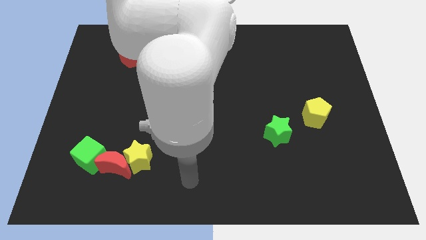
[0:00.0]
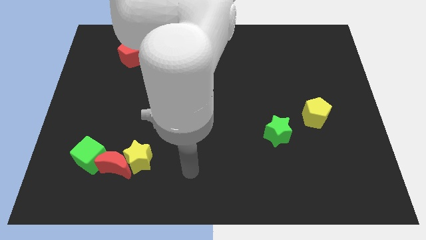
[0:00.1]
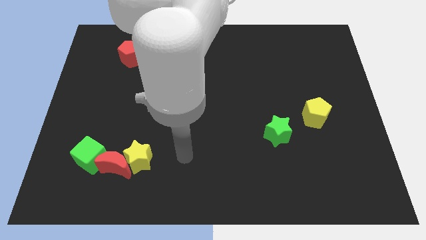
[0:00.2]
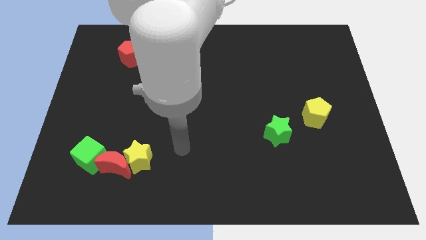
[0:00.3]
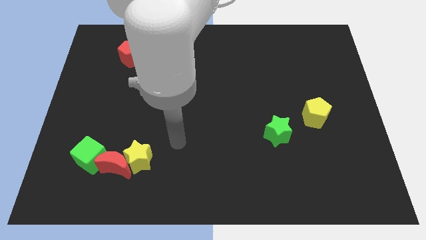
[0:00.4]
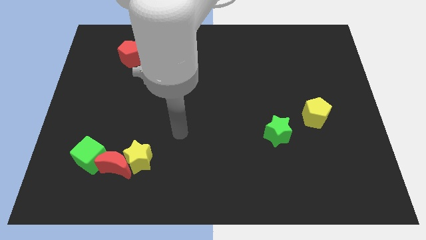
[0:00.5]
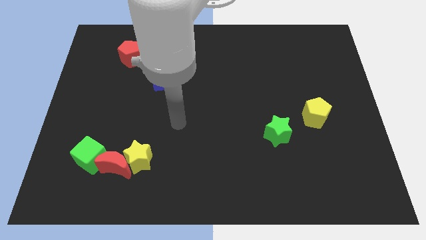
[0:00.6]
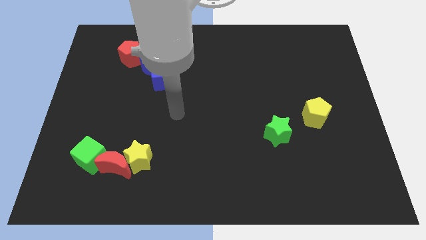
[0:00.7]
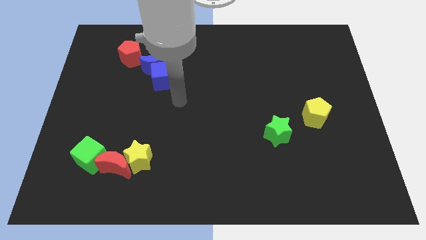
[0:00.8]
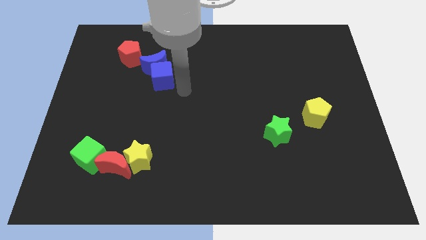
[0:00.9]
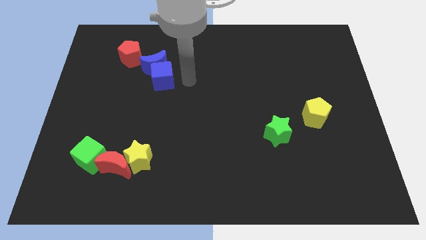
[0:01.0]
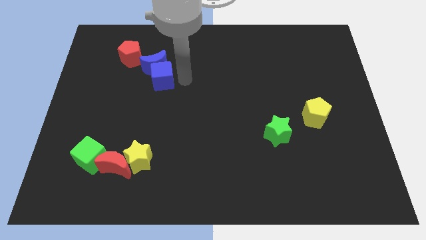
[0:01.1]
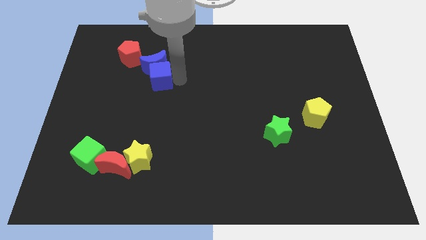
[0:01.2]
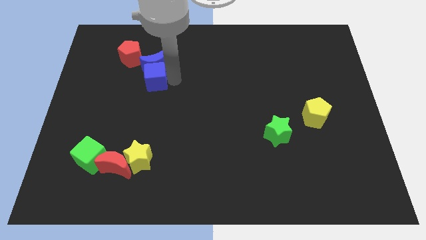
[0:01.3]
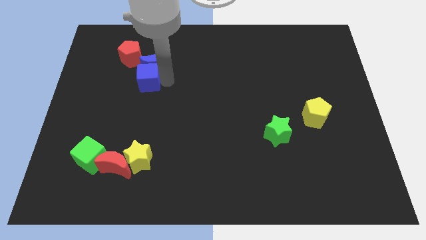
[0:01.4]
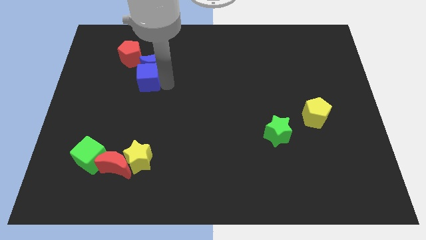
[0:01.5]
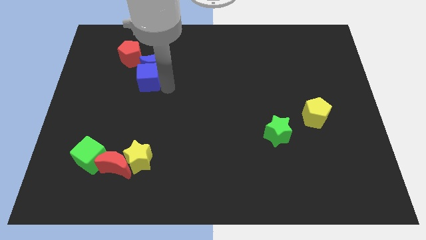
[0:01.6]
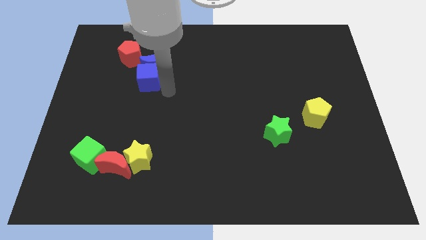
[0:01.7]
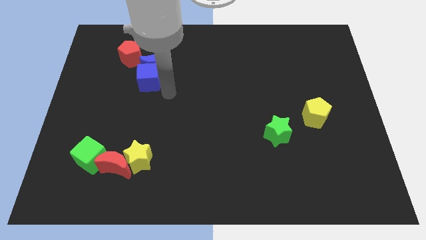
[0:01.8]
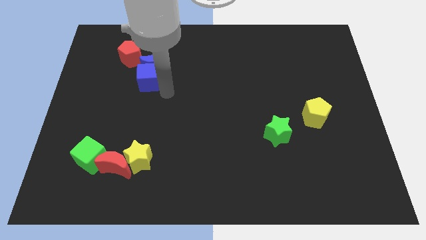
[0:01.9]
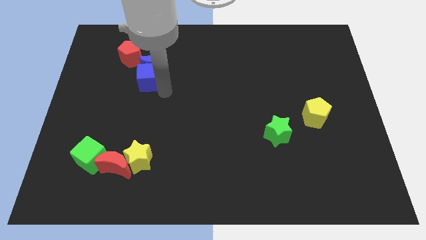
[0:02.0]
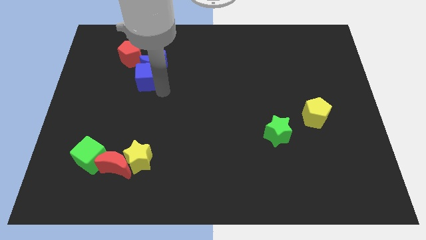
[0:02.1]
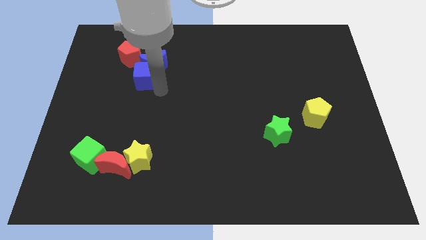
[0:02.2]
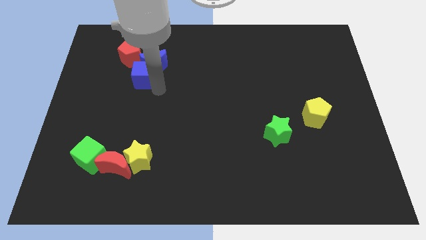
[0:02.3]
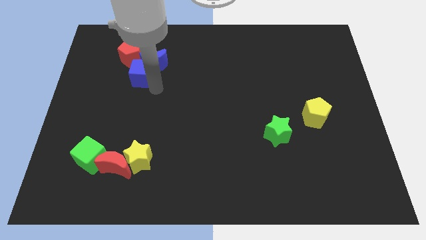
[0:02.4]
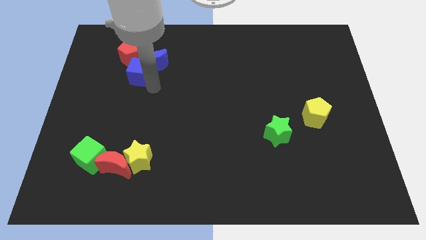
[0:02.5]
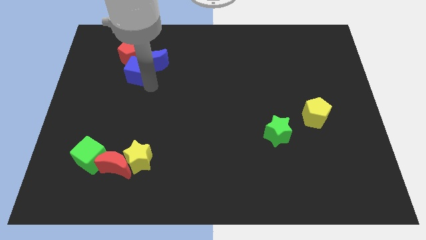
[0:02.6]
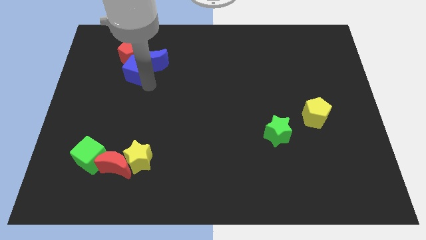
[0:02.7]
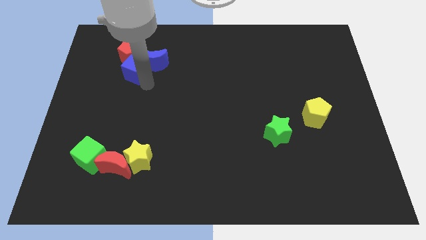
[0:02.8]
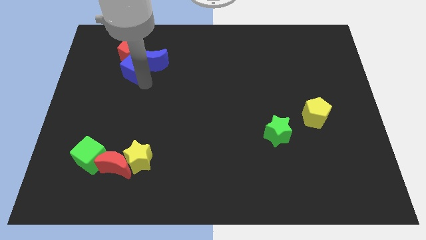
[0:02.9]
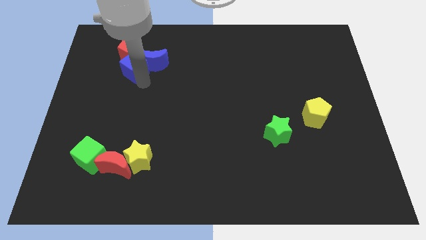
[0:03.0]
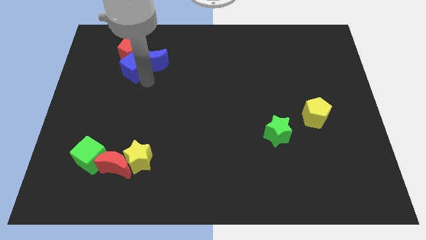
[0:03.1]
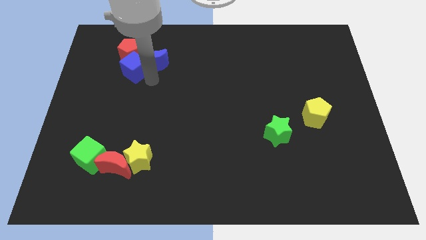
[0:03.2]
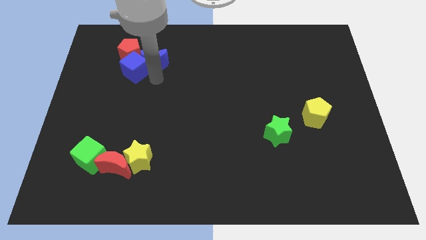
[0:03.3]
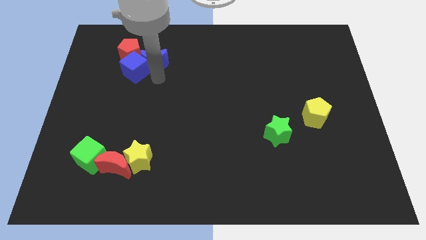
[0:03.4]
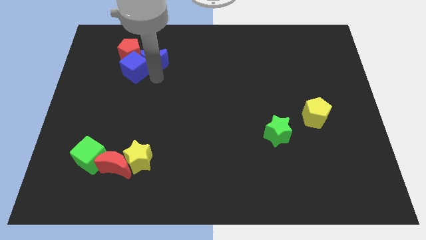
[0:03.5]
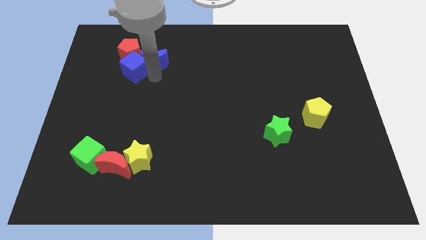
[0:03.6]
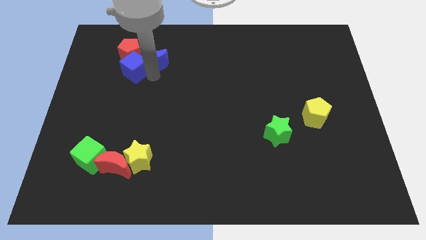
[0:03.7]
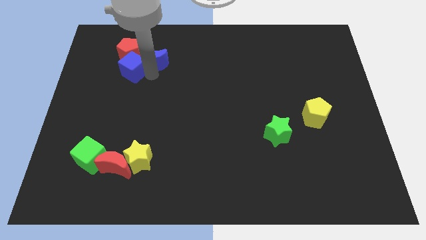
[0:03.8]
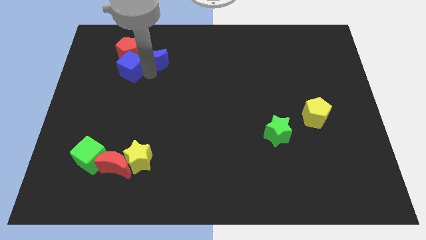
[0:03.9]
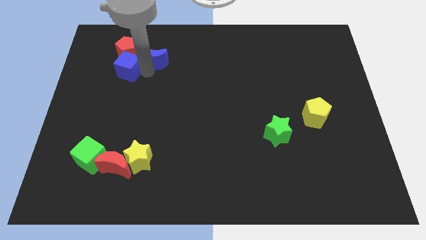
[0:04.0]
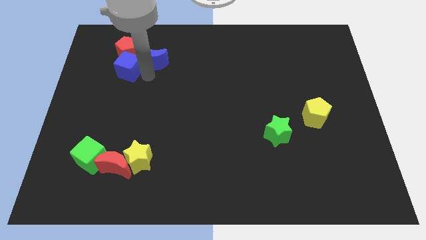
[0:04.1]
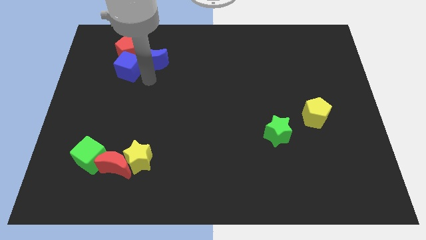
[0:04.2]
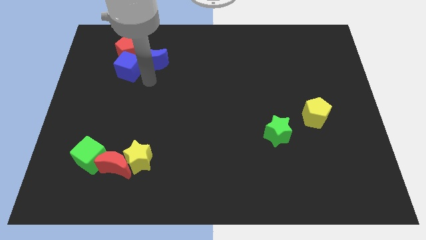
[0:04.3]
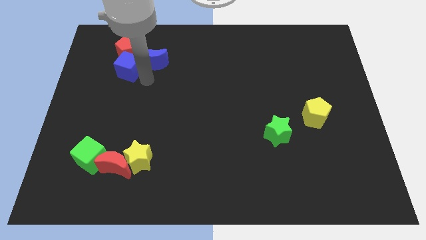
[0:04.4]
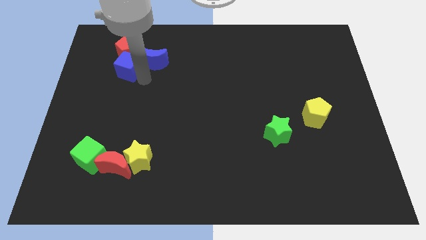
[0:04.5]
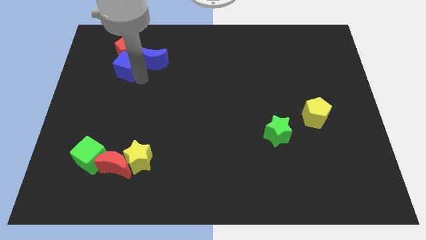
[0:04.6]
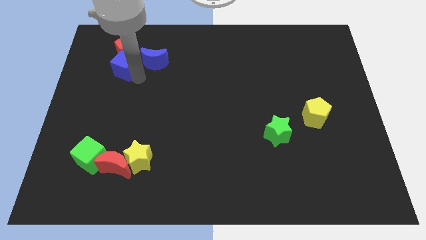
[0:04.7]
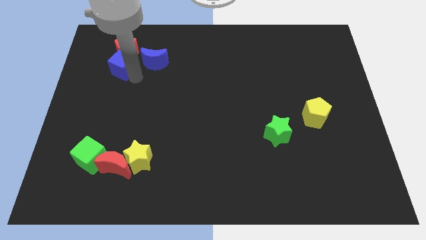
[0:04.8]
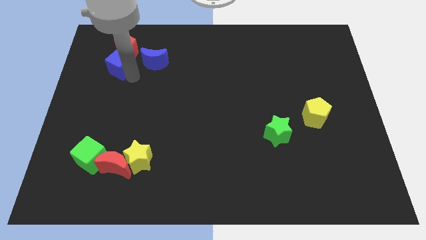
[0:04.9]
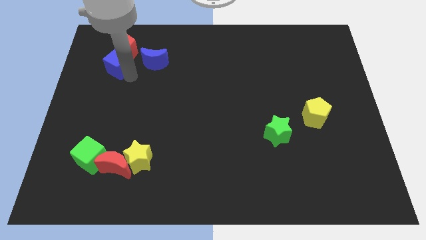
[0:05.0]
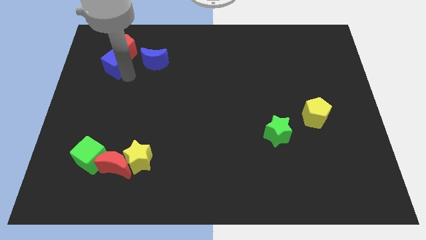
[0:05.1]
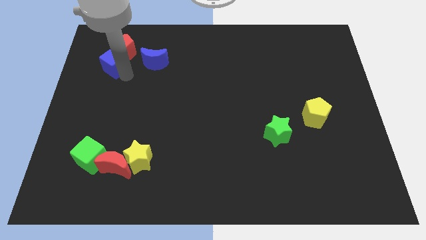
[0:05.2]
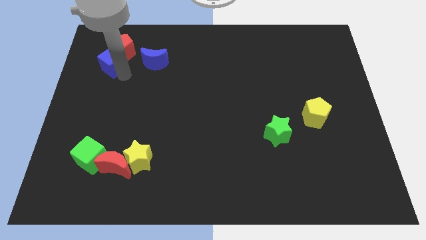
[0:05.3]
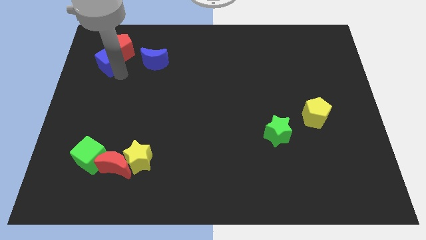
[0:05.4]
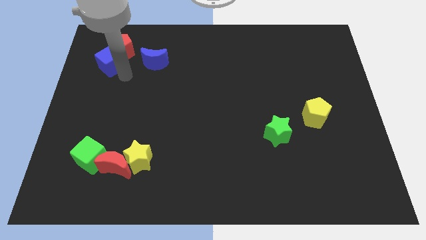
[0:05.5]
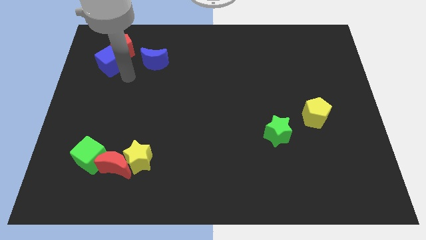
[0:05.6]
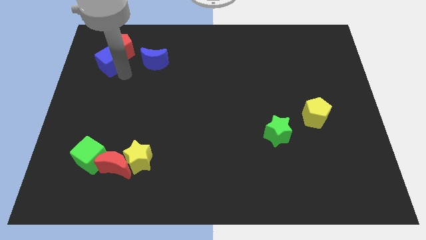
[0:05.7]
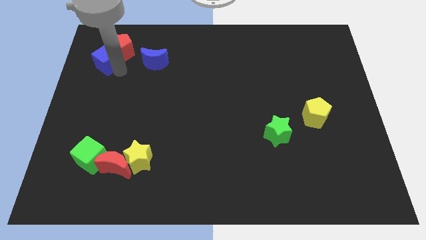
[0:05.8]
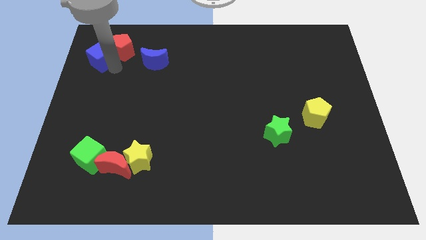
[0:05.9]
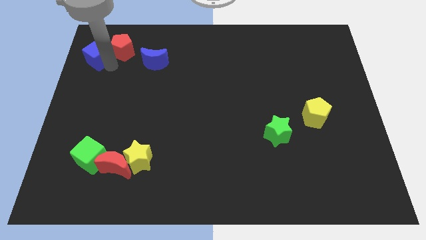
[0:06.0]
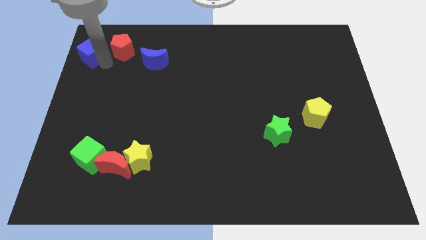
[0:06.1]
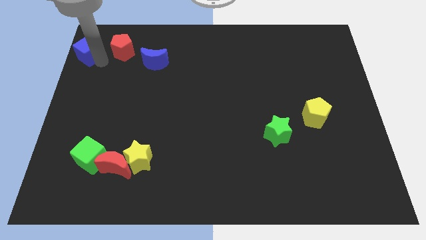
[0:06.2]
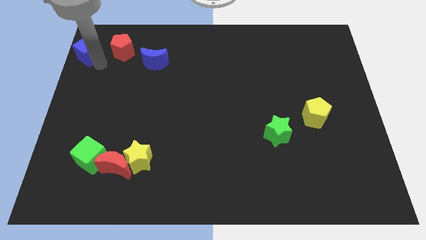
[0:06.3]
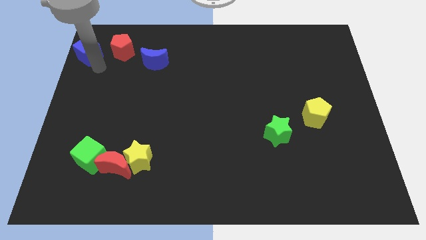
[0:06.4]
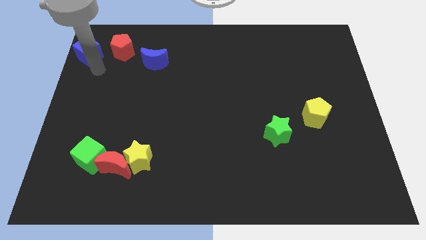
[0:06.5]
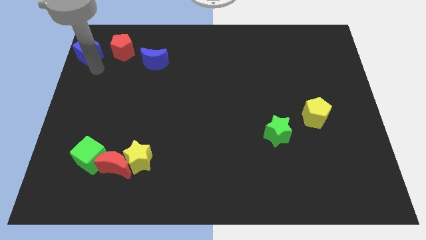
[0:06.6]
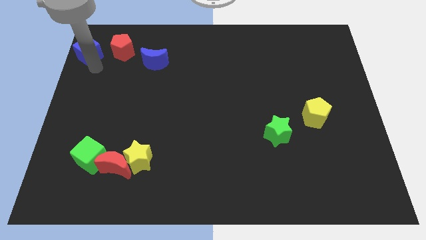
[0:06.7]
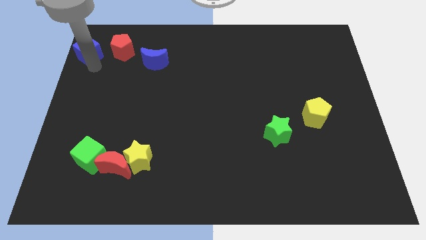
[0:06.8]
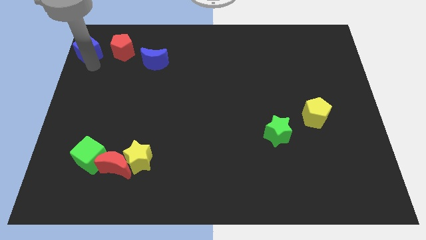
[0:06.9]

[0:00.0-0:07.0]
slide the blue cube to the top left
